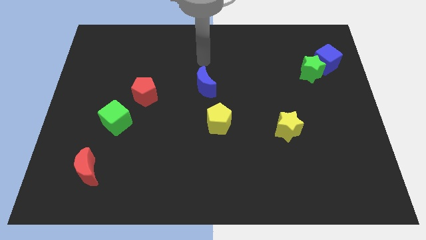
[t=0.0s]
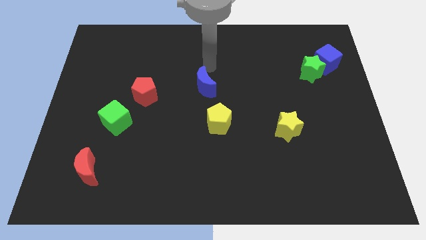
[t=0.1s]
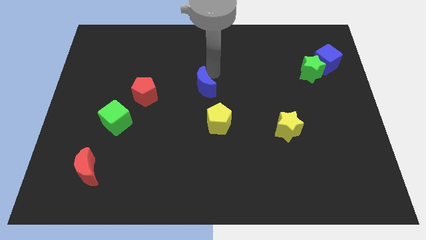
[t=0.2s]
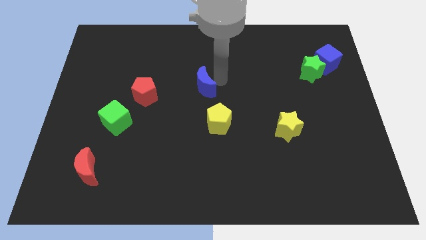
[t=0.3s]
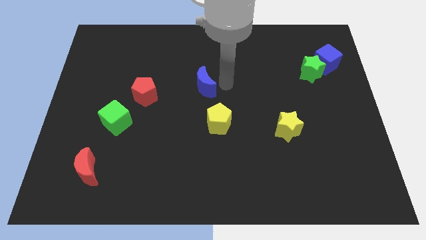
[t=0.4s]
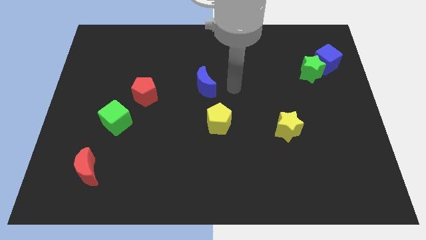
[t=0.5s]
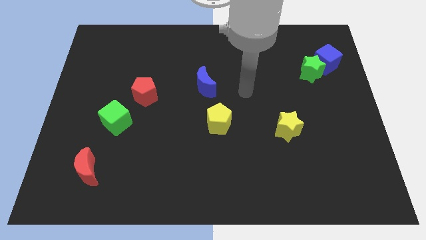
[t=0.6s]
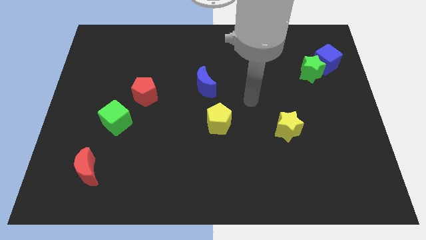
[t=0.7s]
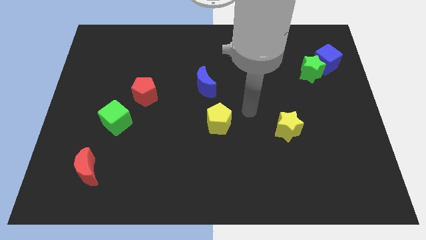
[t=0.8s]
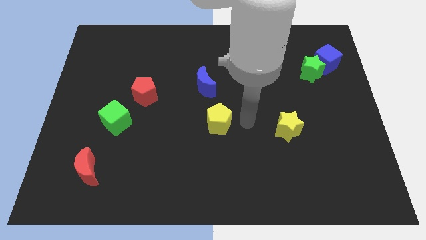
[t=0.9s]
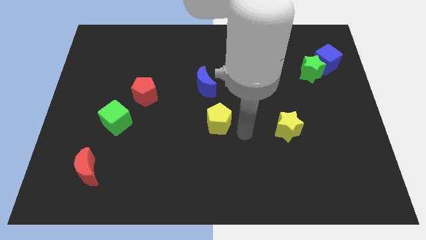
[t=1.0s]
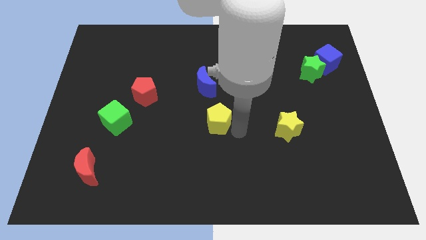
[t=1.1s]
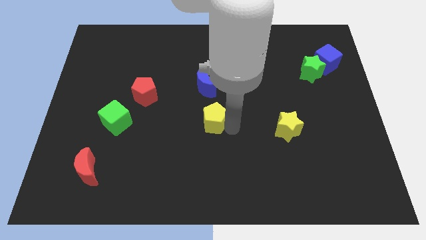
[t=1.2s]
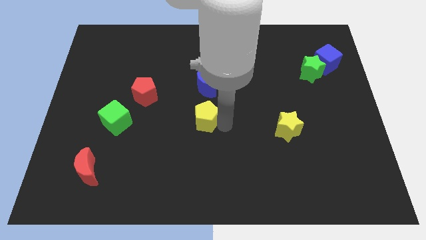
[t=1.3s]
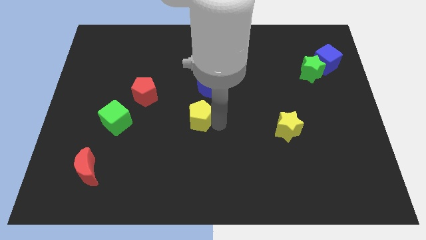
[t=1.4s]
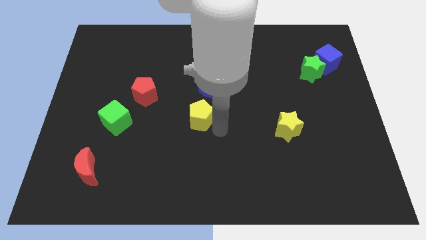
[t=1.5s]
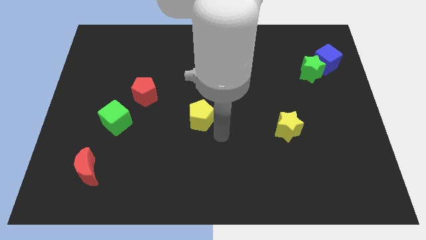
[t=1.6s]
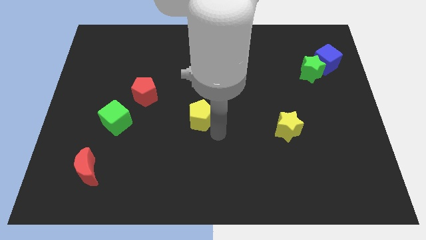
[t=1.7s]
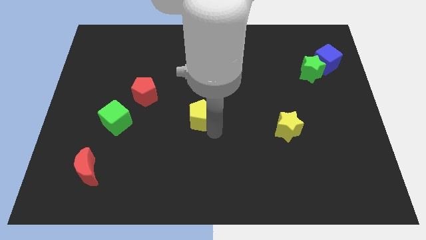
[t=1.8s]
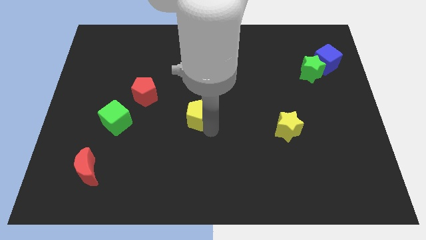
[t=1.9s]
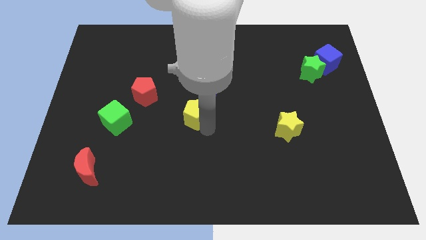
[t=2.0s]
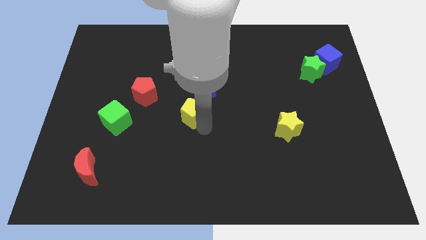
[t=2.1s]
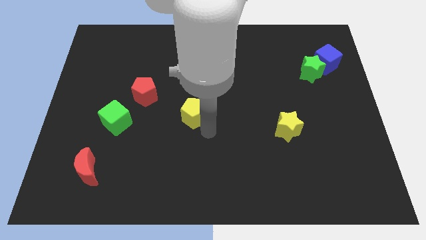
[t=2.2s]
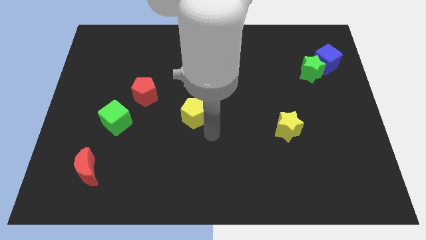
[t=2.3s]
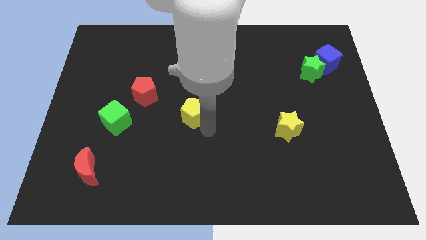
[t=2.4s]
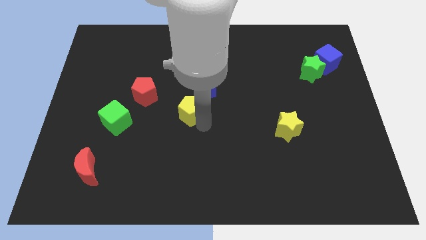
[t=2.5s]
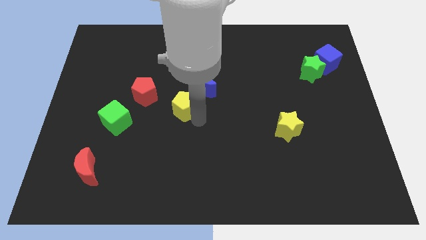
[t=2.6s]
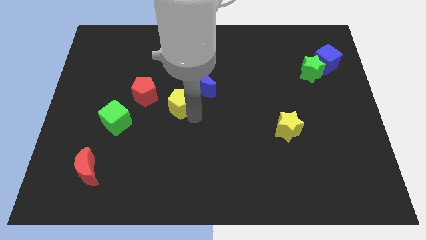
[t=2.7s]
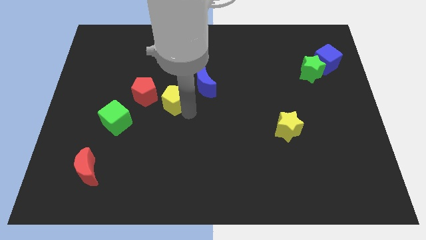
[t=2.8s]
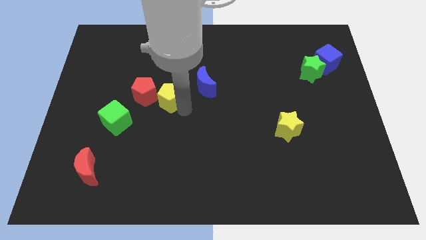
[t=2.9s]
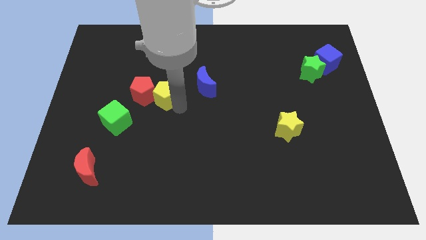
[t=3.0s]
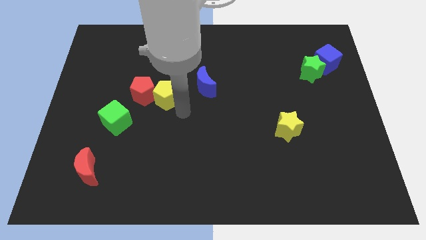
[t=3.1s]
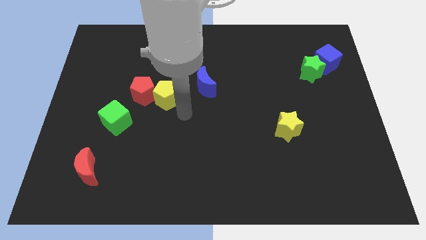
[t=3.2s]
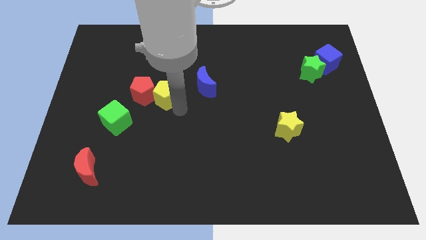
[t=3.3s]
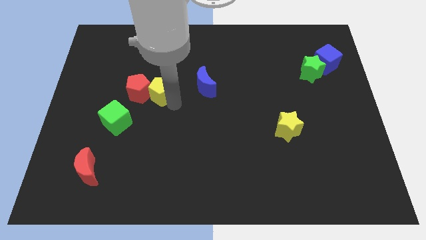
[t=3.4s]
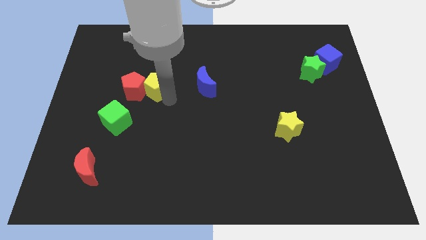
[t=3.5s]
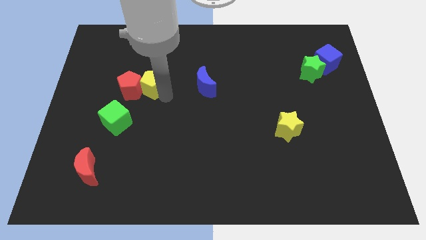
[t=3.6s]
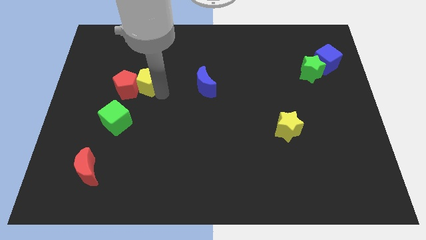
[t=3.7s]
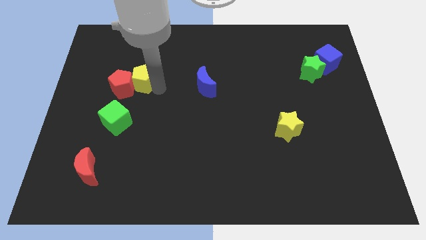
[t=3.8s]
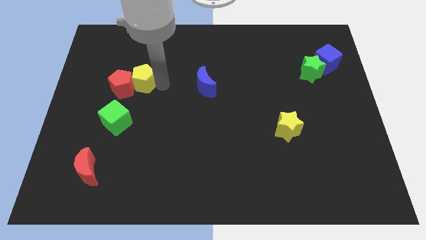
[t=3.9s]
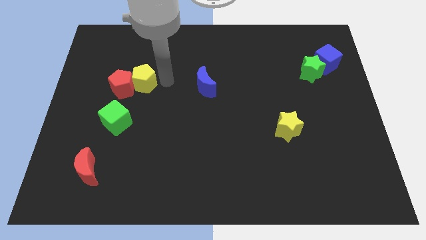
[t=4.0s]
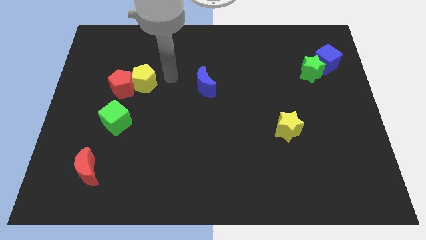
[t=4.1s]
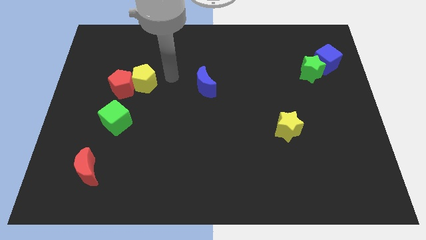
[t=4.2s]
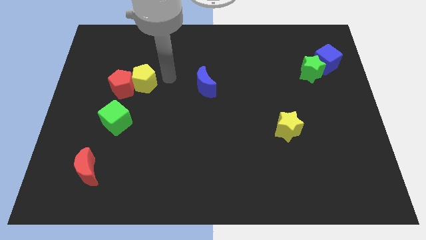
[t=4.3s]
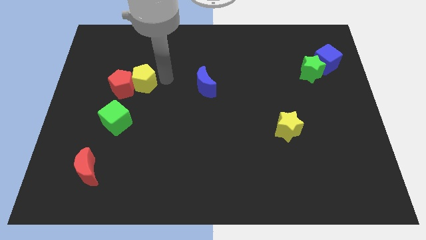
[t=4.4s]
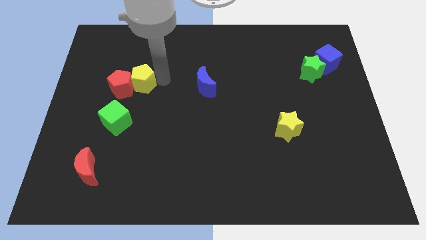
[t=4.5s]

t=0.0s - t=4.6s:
push the yellow pentagon to the top of the green cube

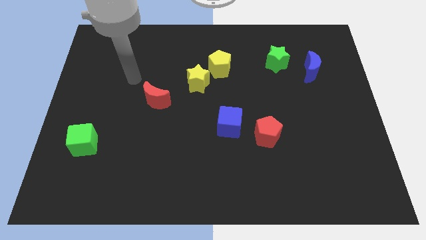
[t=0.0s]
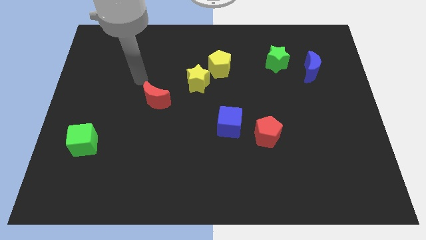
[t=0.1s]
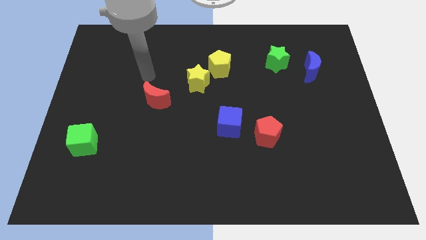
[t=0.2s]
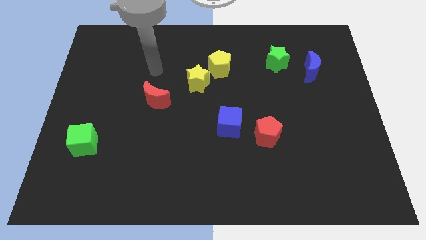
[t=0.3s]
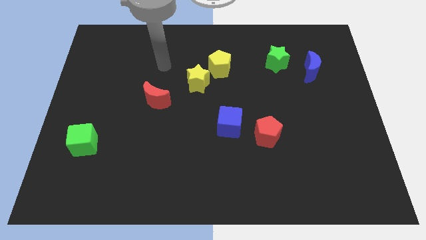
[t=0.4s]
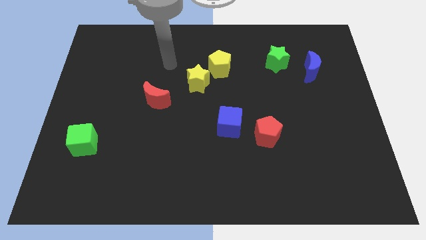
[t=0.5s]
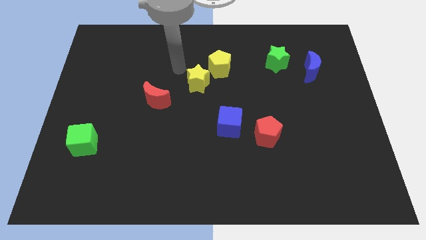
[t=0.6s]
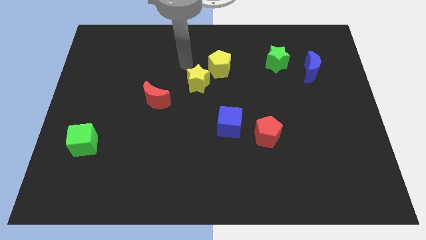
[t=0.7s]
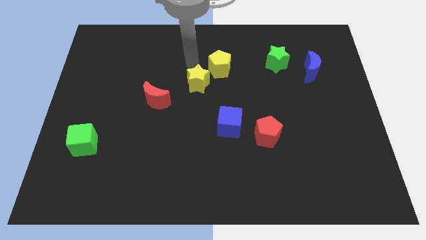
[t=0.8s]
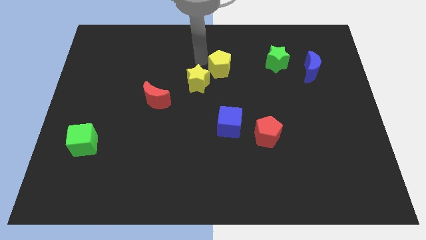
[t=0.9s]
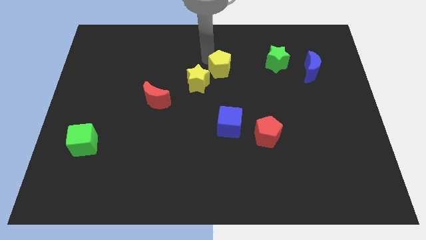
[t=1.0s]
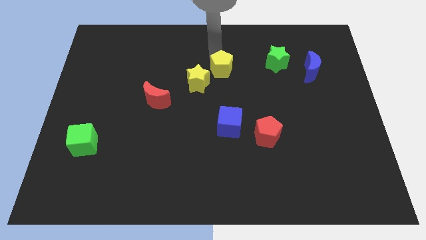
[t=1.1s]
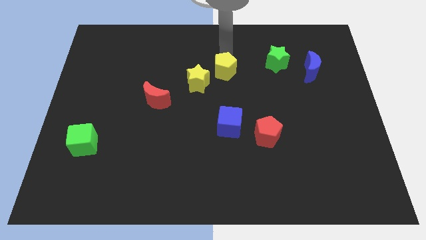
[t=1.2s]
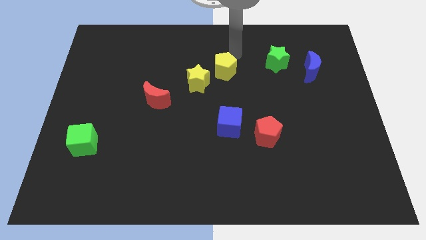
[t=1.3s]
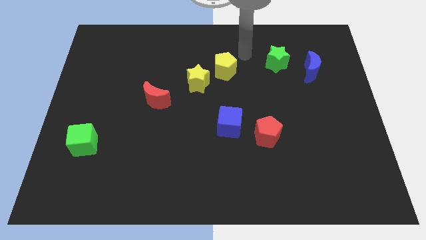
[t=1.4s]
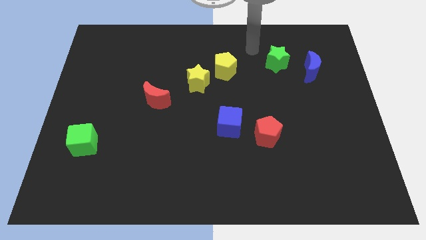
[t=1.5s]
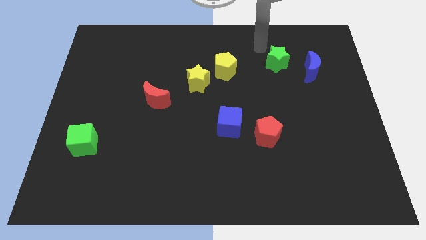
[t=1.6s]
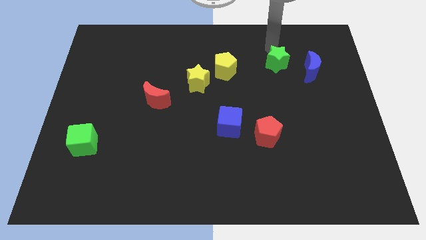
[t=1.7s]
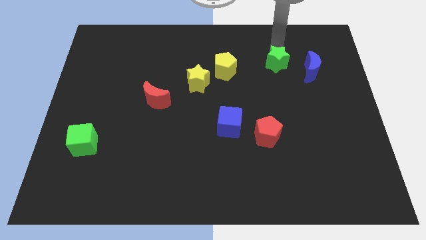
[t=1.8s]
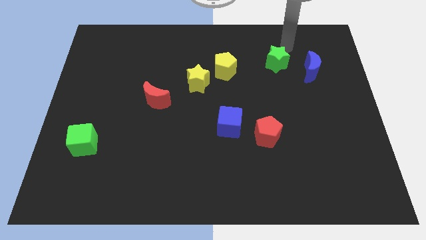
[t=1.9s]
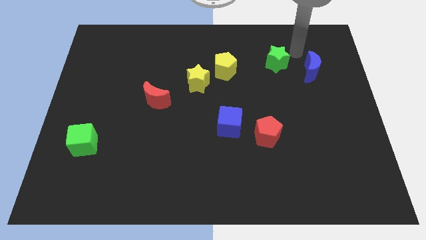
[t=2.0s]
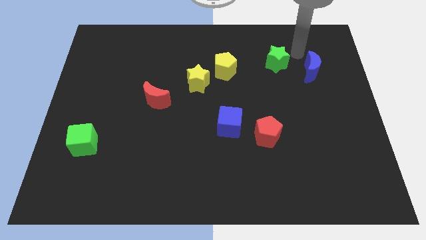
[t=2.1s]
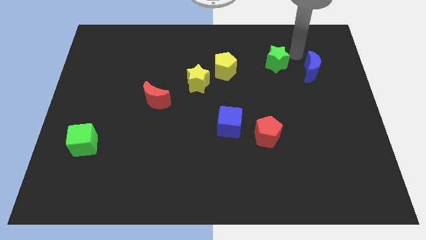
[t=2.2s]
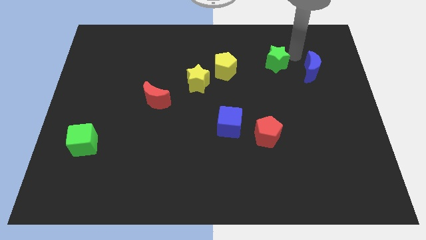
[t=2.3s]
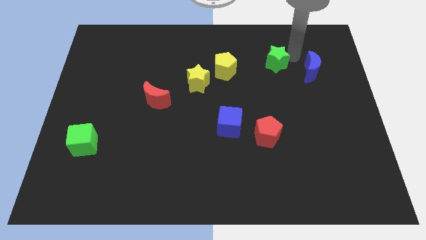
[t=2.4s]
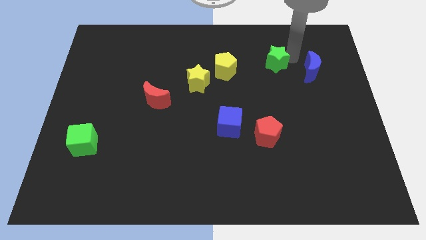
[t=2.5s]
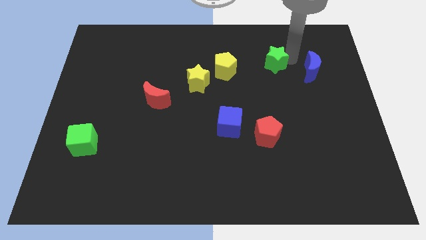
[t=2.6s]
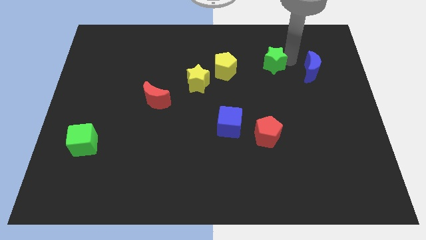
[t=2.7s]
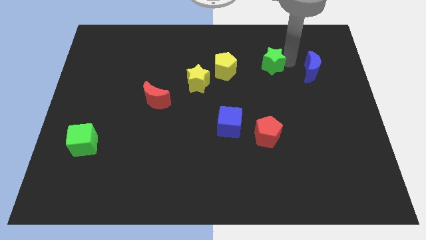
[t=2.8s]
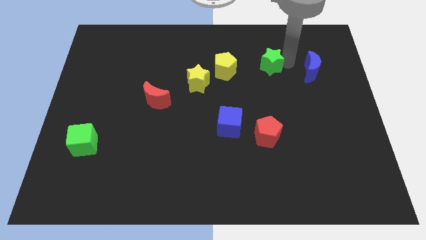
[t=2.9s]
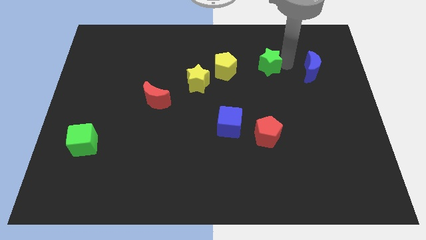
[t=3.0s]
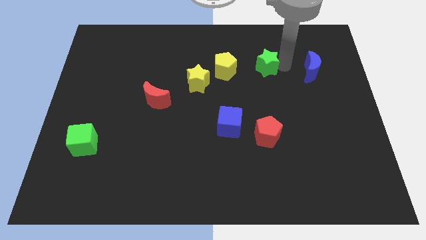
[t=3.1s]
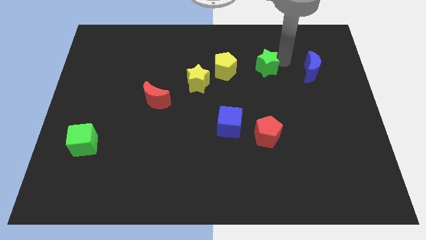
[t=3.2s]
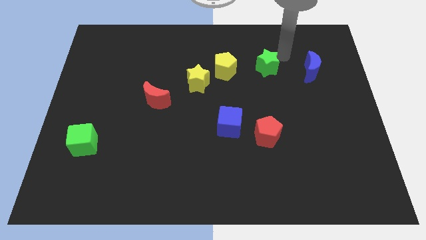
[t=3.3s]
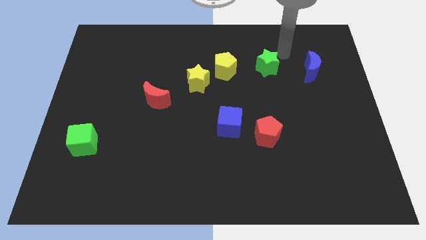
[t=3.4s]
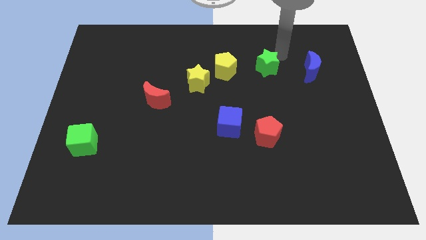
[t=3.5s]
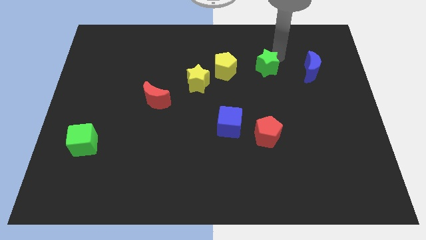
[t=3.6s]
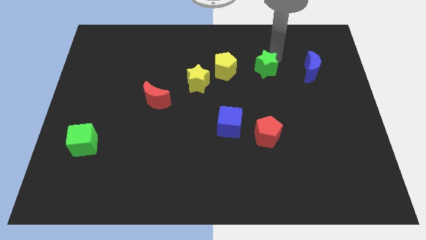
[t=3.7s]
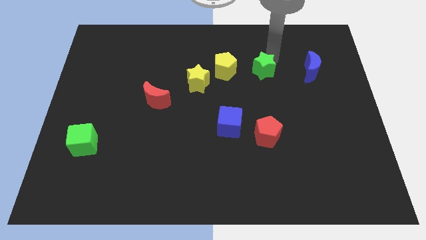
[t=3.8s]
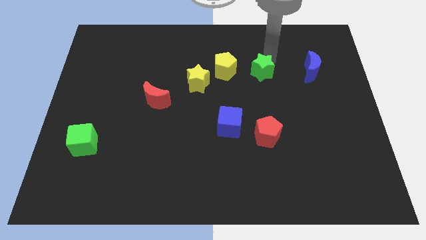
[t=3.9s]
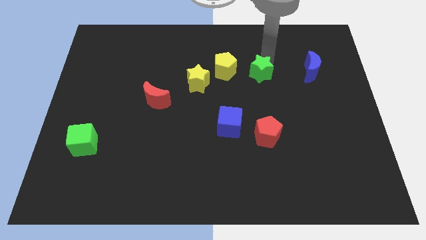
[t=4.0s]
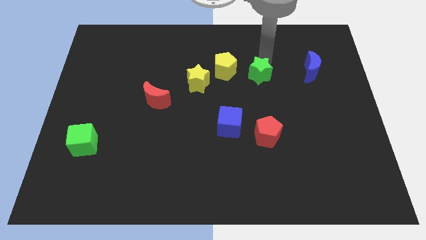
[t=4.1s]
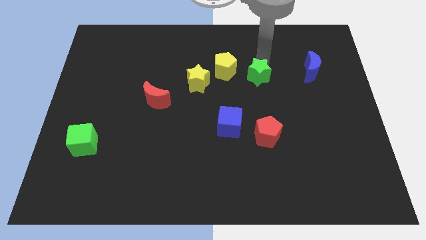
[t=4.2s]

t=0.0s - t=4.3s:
slide the green star diagonally down and to the right of the yellow pentagon
